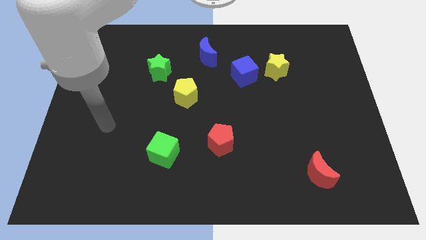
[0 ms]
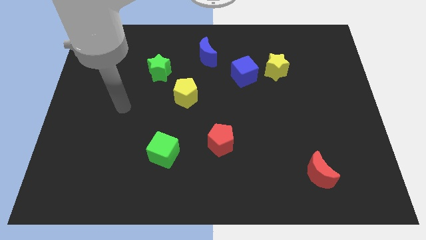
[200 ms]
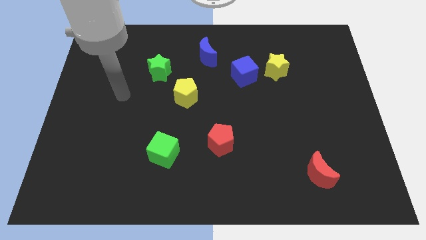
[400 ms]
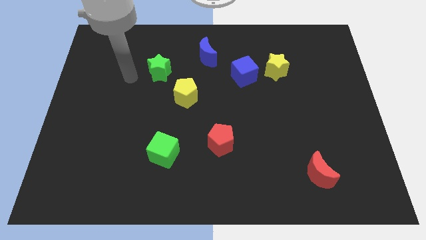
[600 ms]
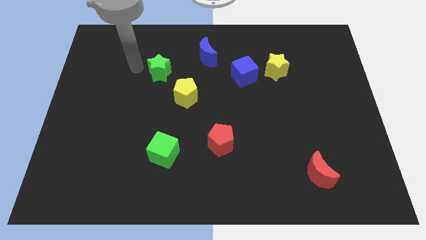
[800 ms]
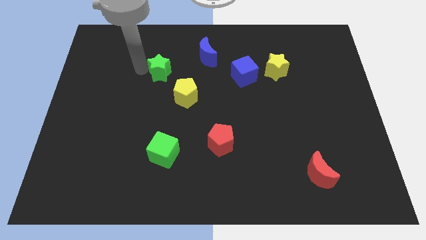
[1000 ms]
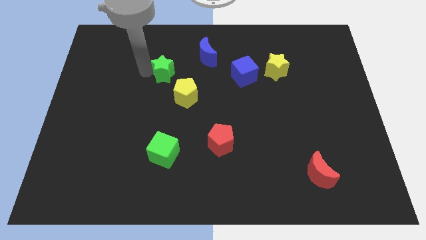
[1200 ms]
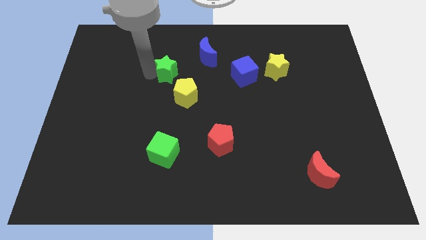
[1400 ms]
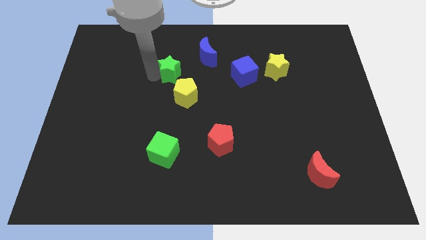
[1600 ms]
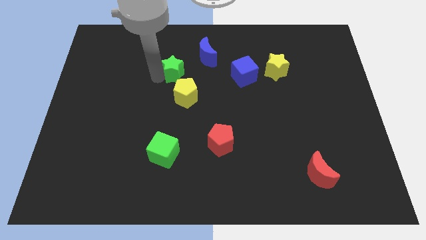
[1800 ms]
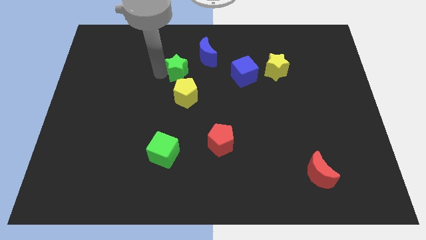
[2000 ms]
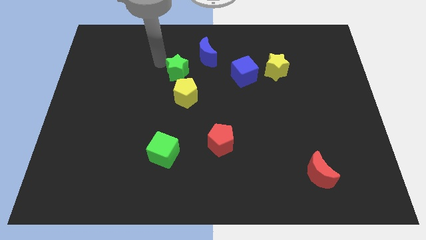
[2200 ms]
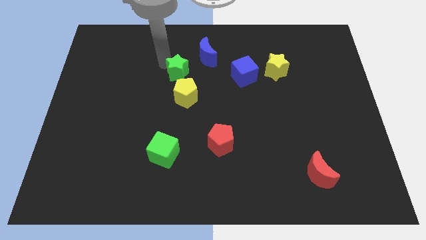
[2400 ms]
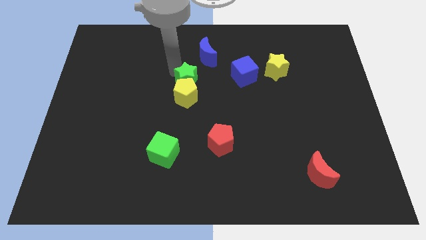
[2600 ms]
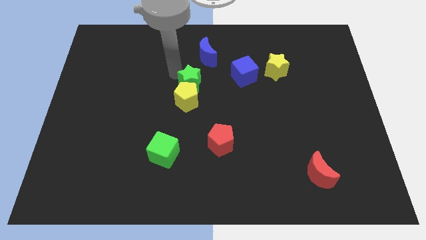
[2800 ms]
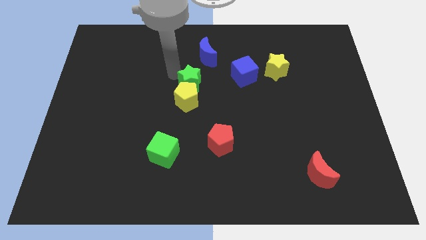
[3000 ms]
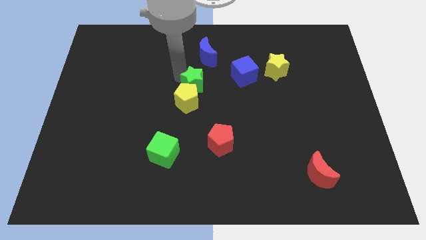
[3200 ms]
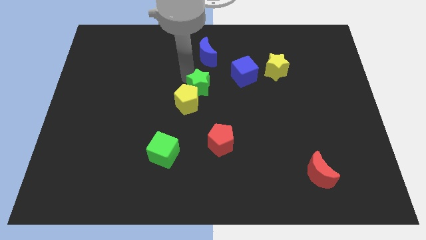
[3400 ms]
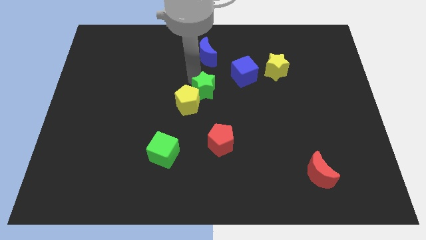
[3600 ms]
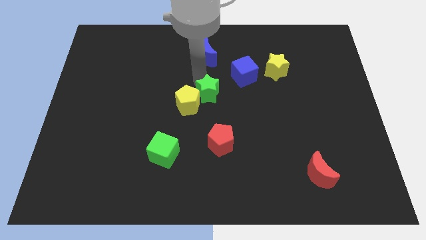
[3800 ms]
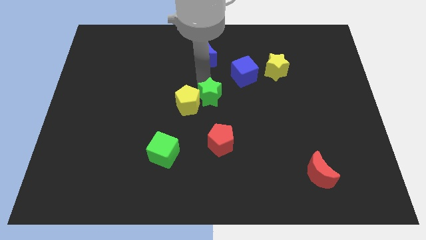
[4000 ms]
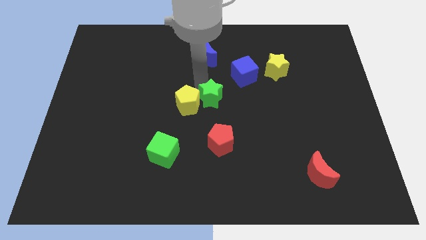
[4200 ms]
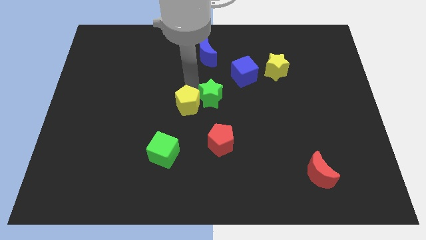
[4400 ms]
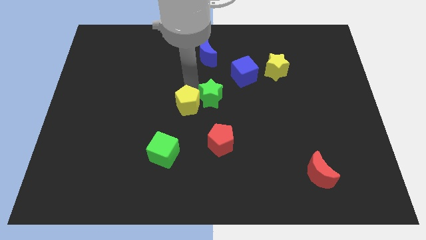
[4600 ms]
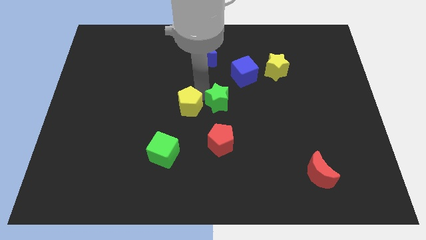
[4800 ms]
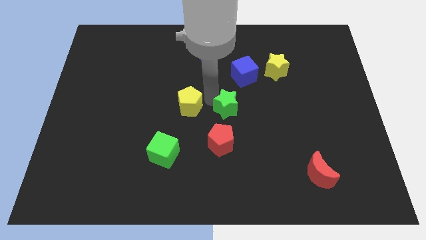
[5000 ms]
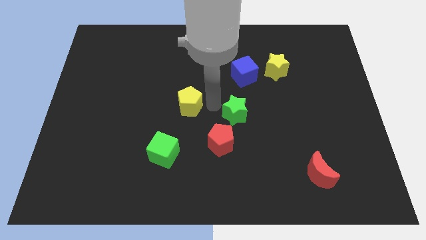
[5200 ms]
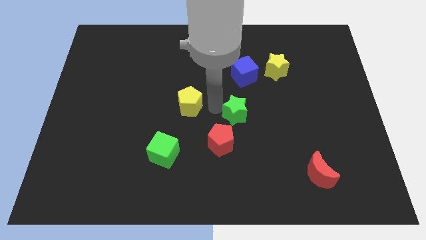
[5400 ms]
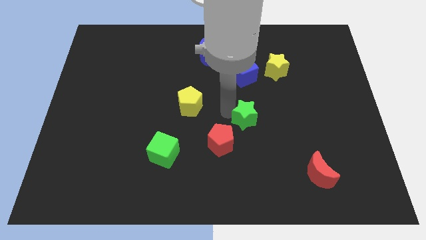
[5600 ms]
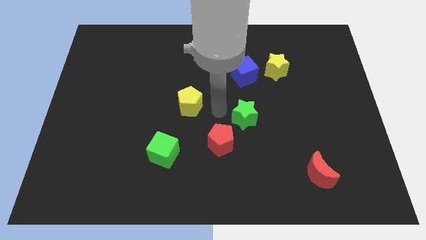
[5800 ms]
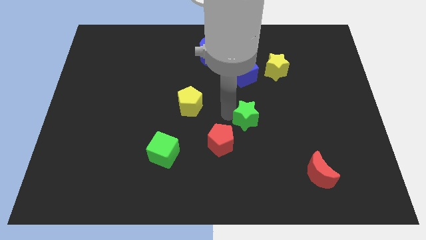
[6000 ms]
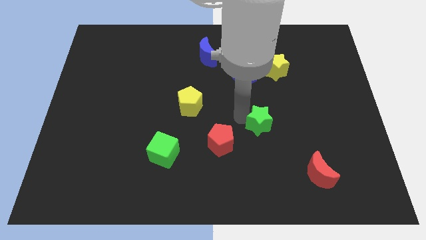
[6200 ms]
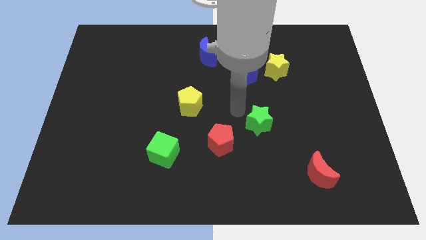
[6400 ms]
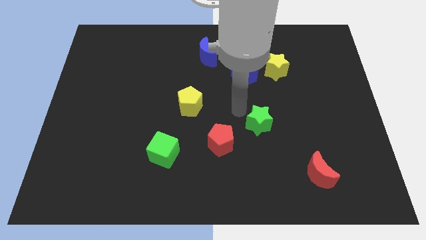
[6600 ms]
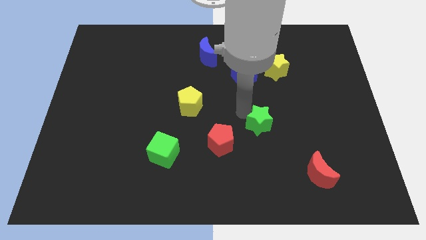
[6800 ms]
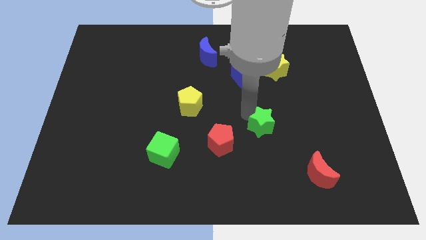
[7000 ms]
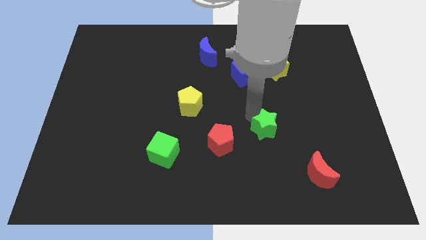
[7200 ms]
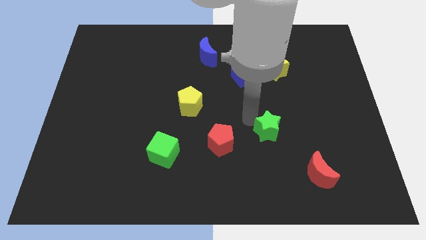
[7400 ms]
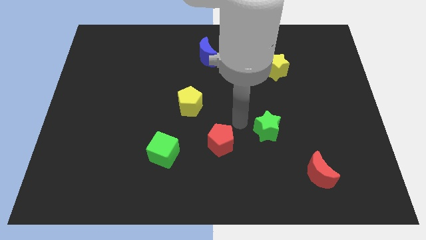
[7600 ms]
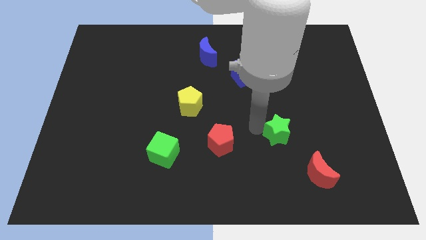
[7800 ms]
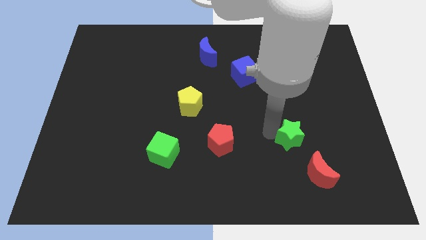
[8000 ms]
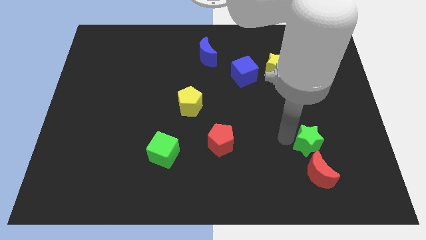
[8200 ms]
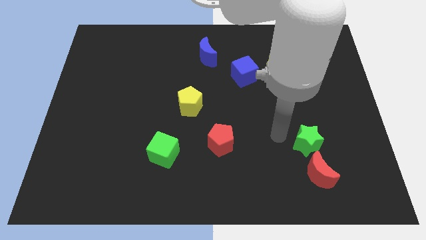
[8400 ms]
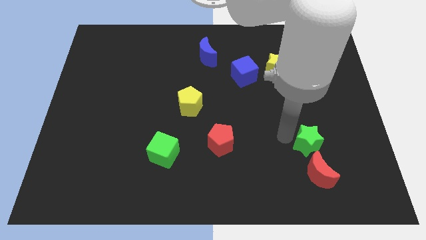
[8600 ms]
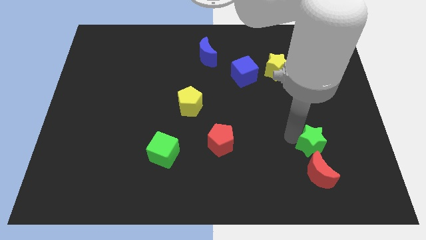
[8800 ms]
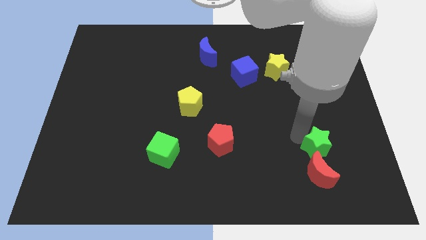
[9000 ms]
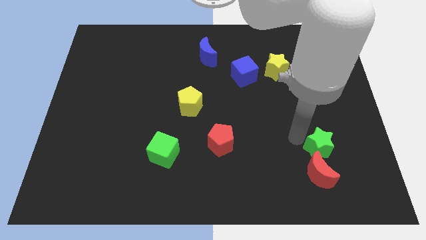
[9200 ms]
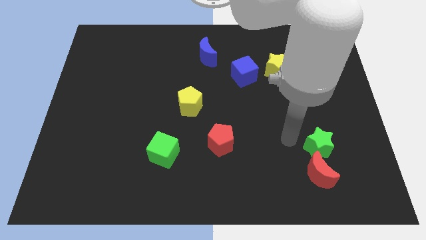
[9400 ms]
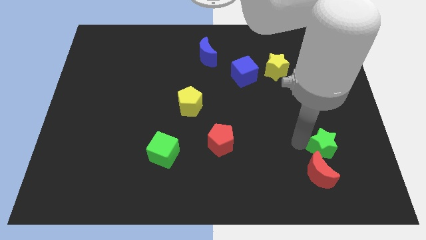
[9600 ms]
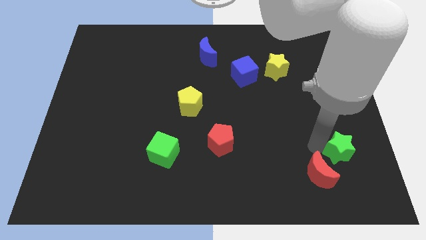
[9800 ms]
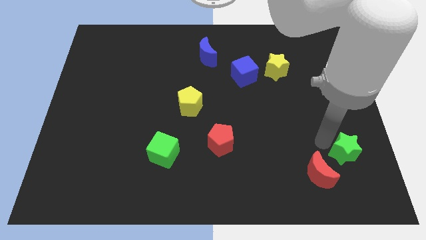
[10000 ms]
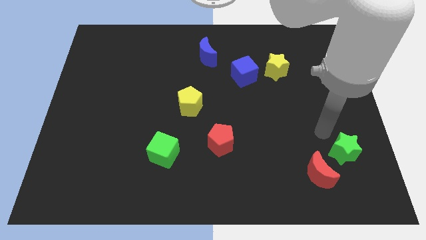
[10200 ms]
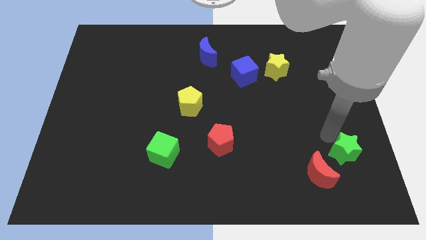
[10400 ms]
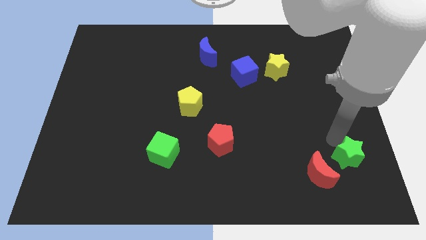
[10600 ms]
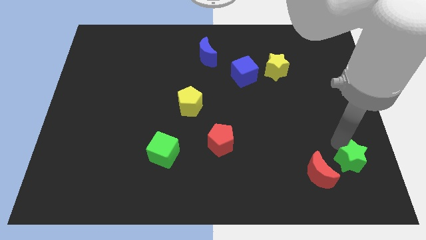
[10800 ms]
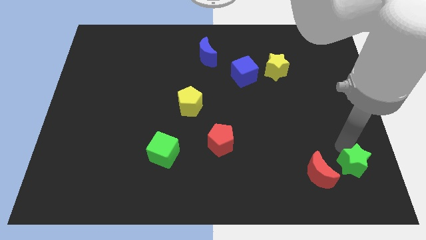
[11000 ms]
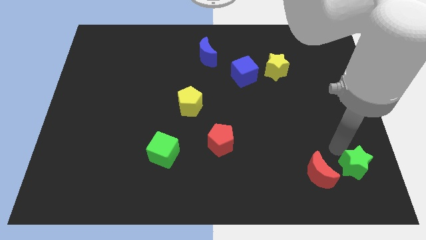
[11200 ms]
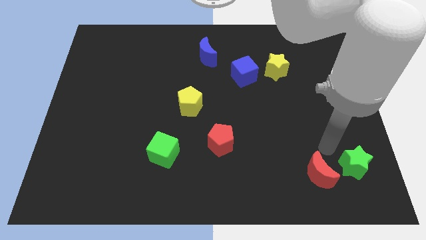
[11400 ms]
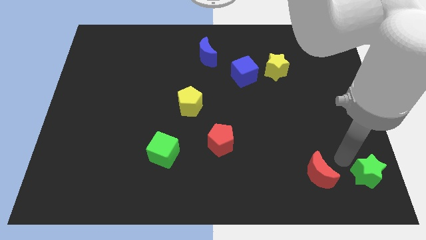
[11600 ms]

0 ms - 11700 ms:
put the green star to the bottom right of the board
